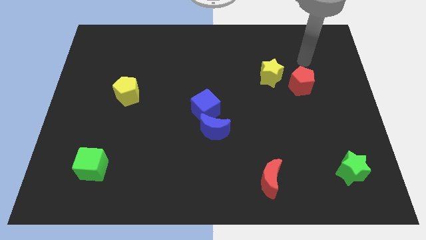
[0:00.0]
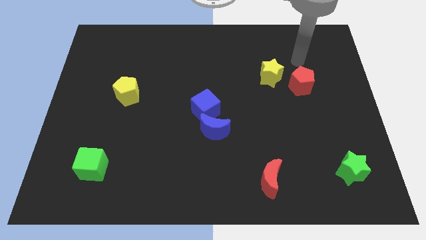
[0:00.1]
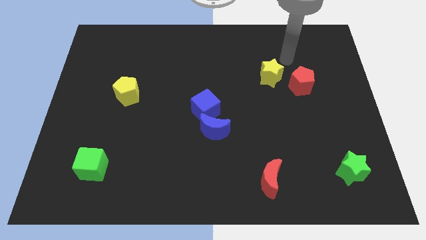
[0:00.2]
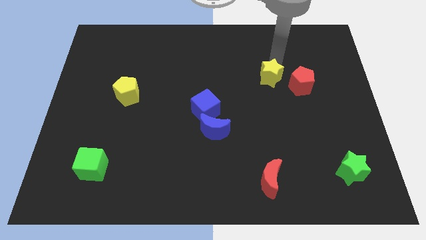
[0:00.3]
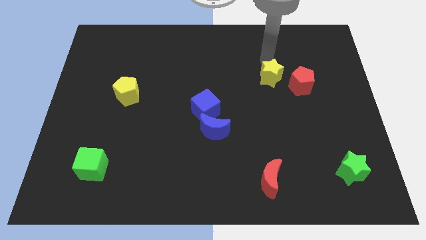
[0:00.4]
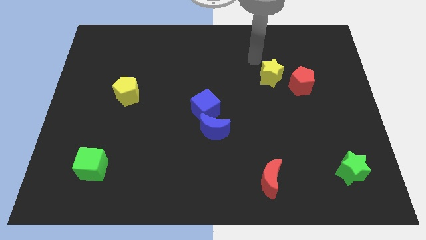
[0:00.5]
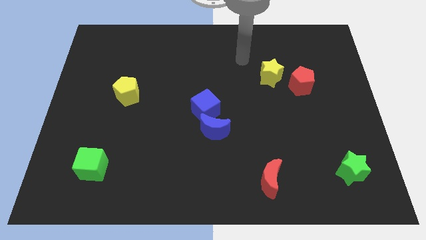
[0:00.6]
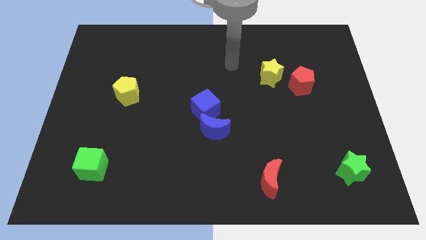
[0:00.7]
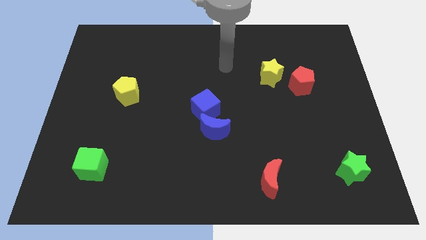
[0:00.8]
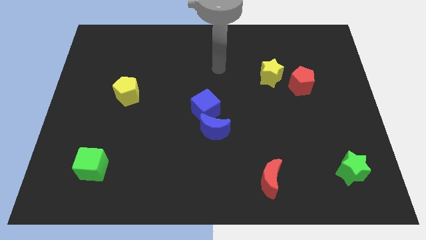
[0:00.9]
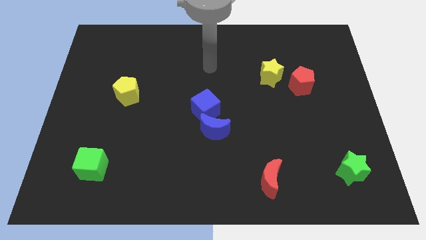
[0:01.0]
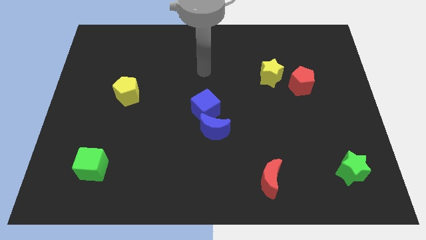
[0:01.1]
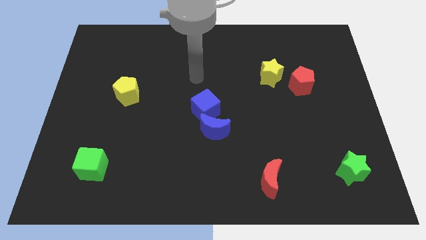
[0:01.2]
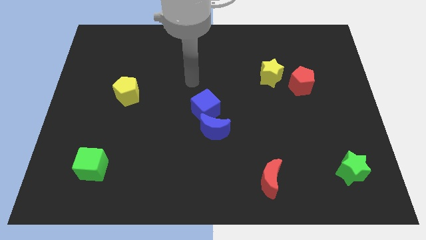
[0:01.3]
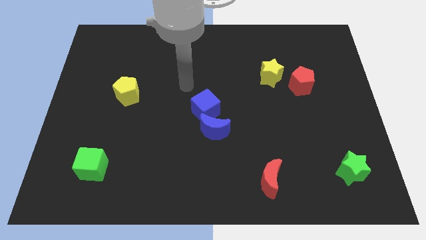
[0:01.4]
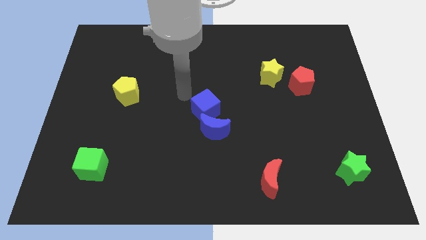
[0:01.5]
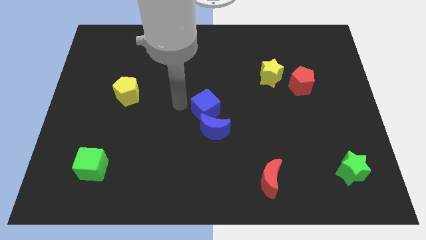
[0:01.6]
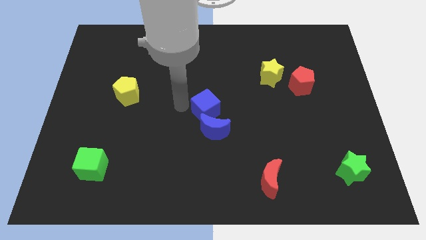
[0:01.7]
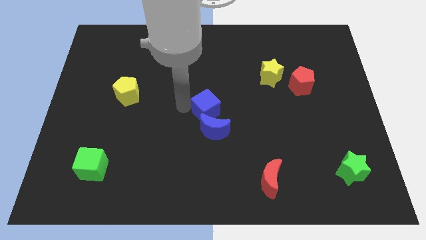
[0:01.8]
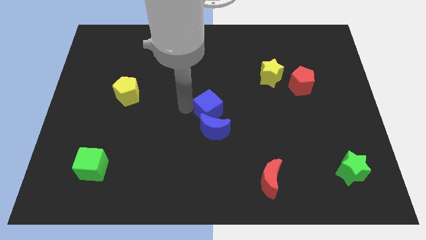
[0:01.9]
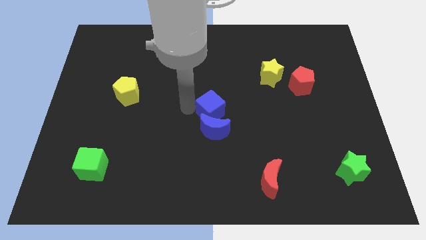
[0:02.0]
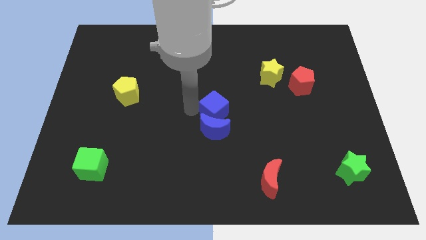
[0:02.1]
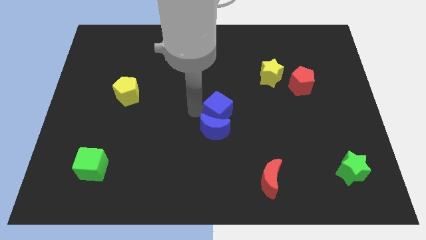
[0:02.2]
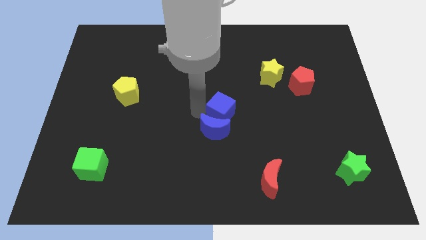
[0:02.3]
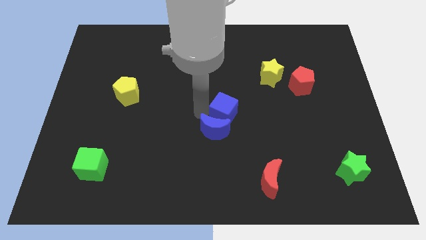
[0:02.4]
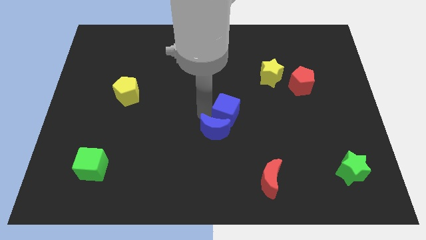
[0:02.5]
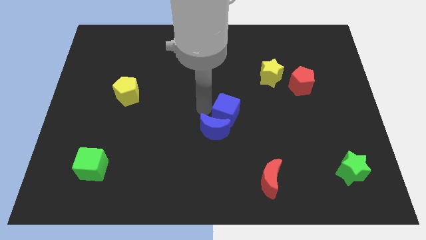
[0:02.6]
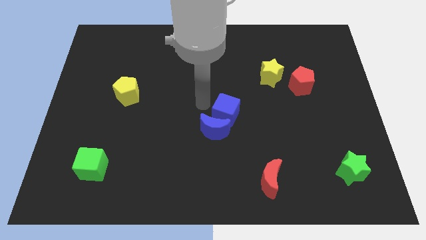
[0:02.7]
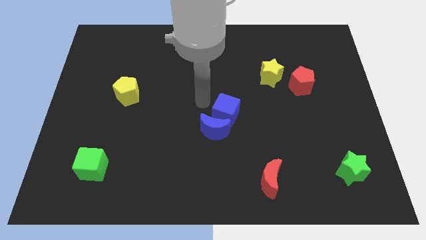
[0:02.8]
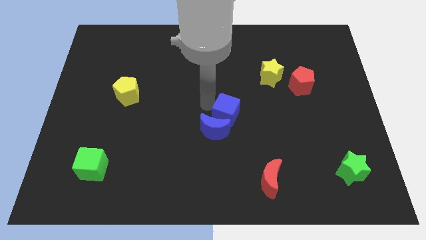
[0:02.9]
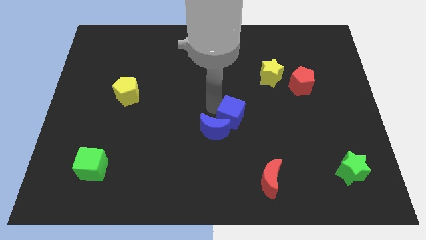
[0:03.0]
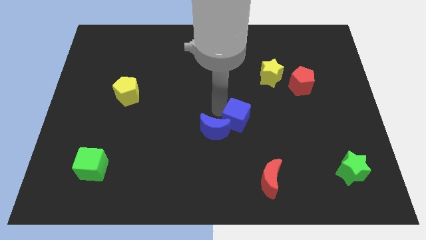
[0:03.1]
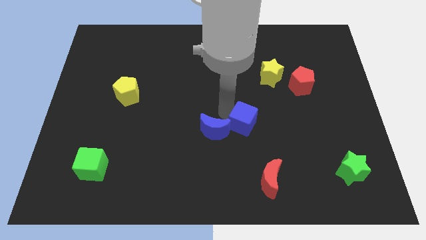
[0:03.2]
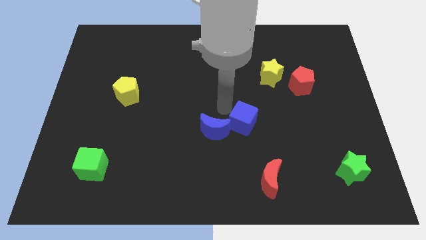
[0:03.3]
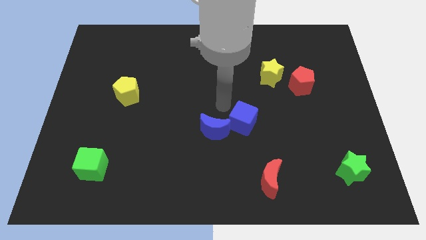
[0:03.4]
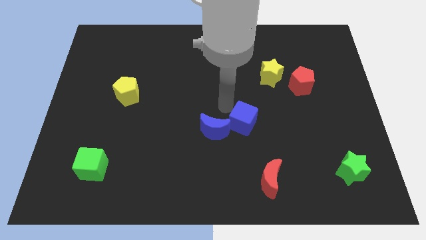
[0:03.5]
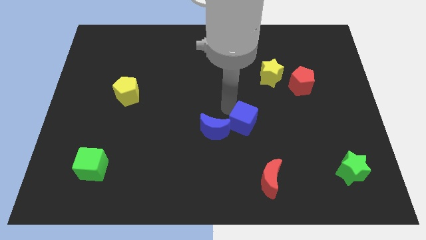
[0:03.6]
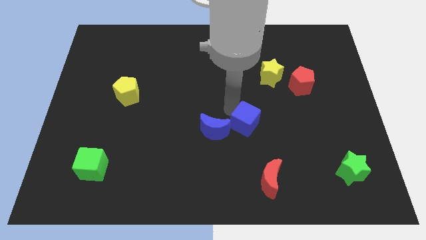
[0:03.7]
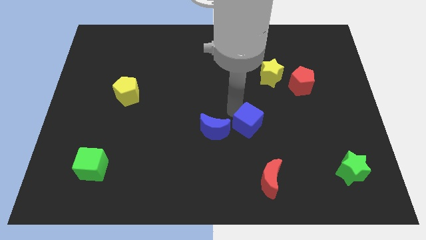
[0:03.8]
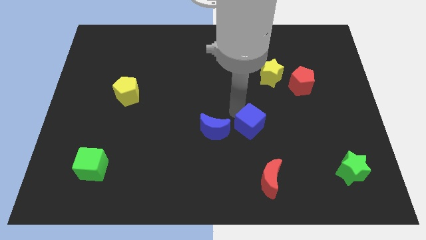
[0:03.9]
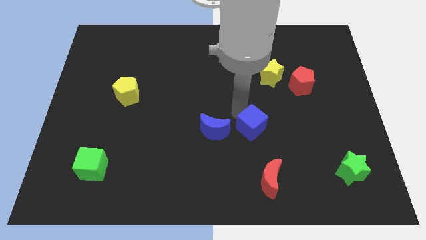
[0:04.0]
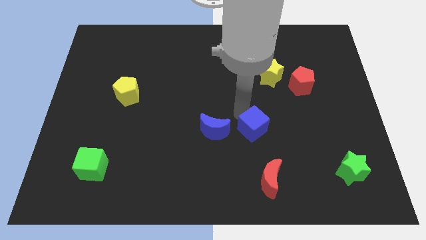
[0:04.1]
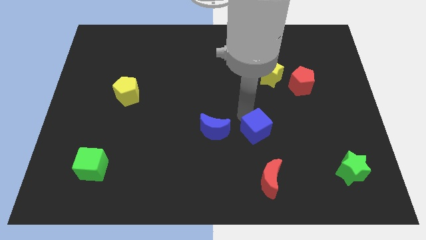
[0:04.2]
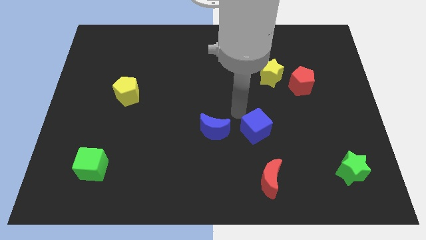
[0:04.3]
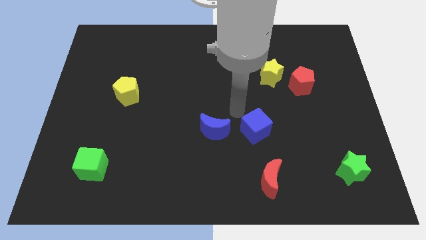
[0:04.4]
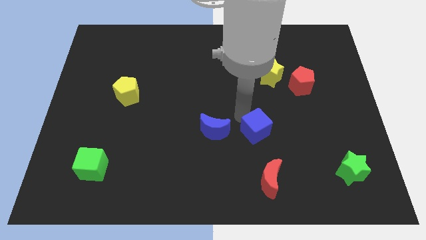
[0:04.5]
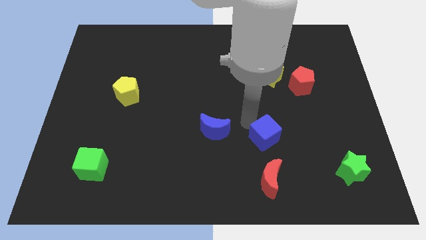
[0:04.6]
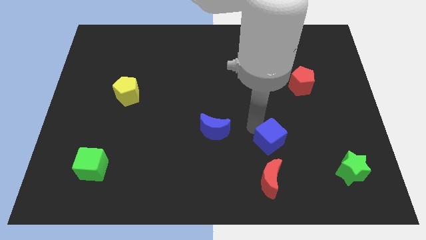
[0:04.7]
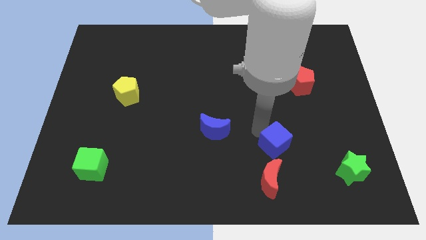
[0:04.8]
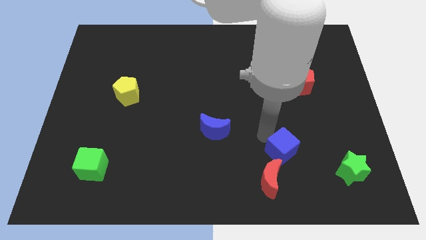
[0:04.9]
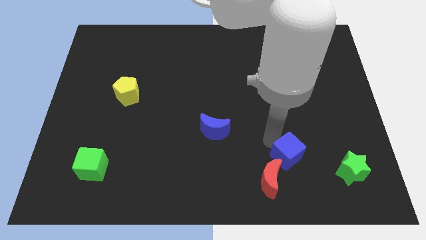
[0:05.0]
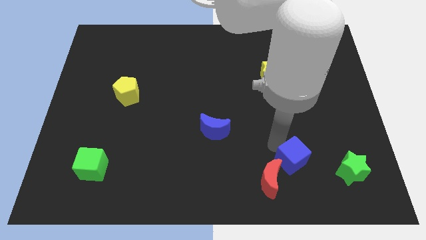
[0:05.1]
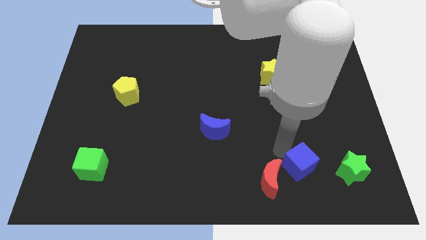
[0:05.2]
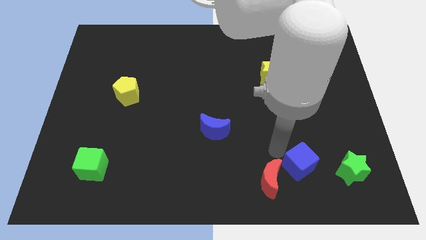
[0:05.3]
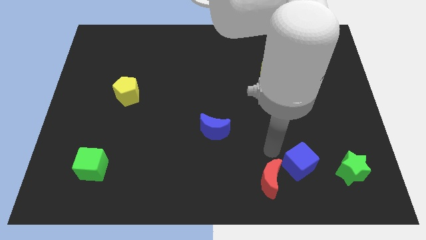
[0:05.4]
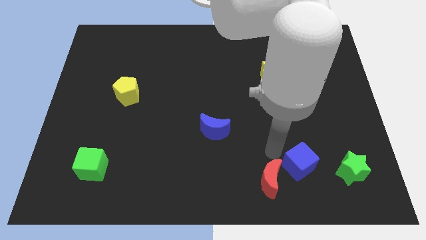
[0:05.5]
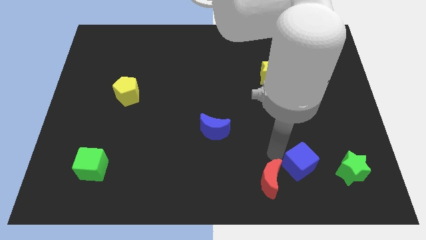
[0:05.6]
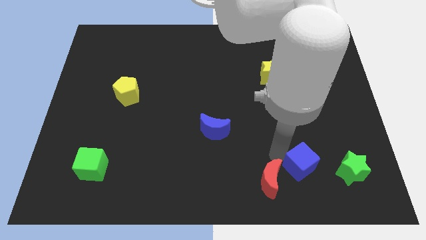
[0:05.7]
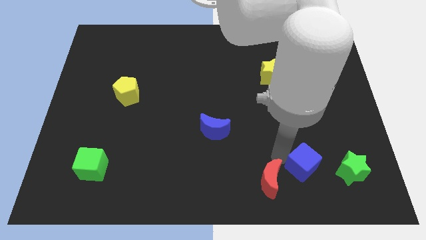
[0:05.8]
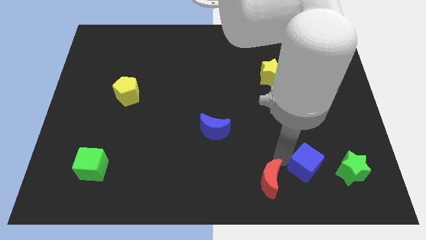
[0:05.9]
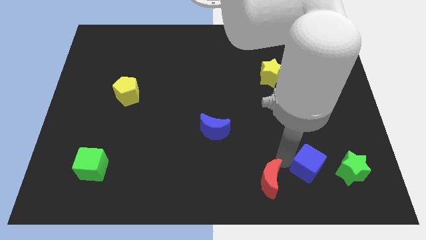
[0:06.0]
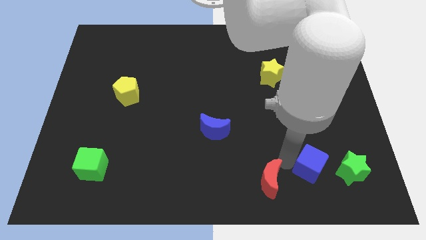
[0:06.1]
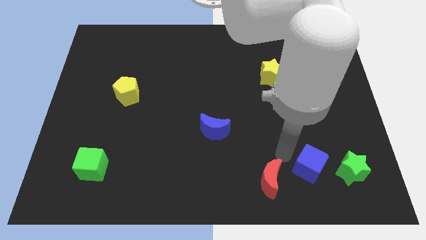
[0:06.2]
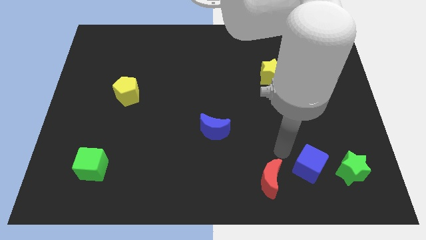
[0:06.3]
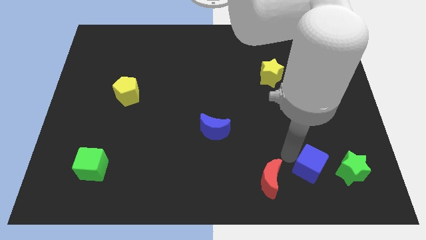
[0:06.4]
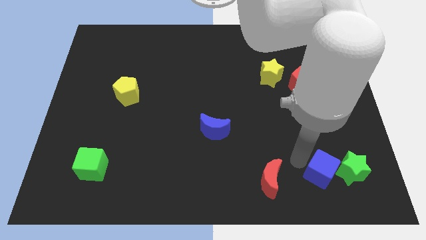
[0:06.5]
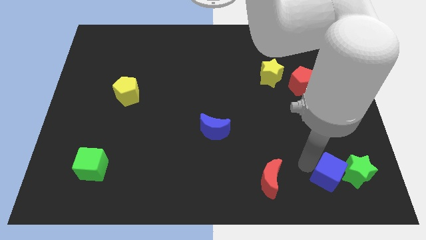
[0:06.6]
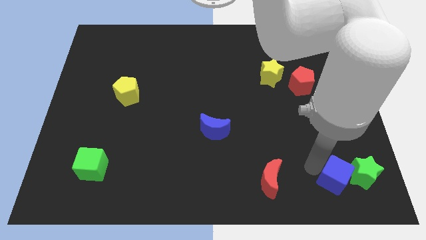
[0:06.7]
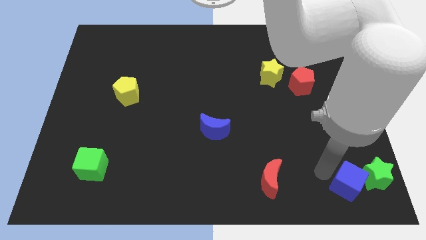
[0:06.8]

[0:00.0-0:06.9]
put the blue cube to the bottom right
